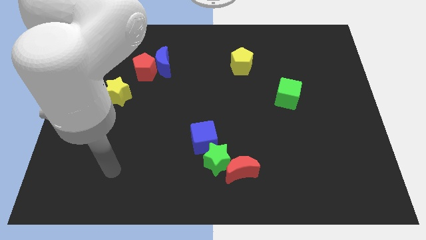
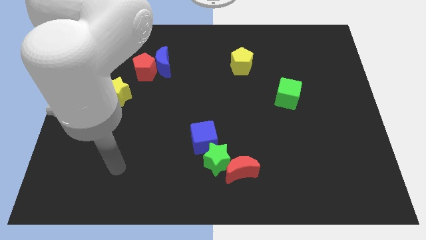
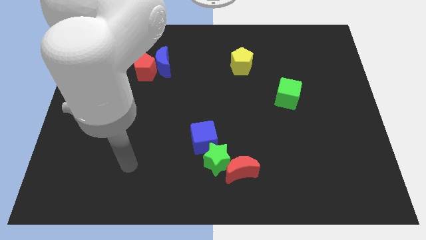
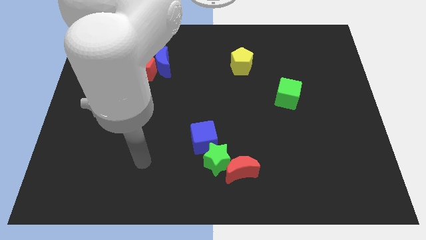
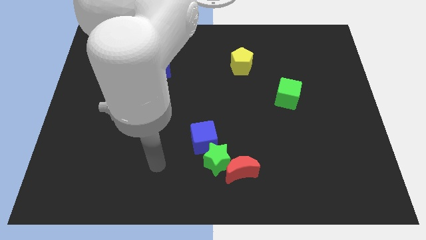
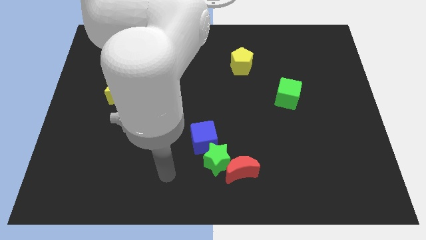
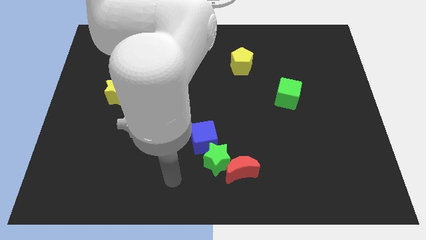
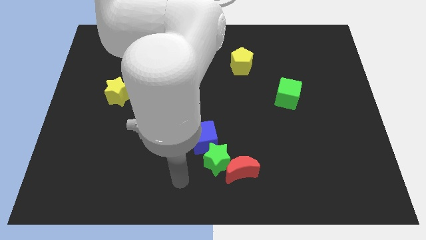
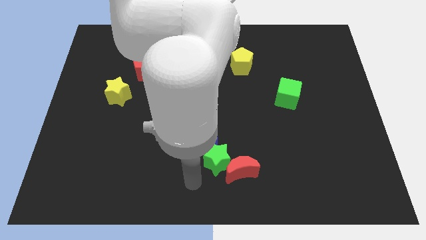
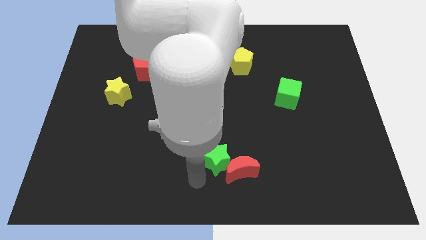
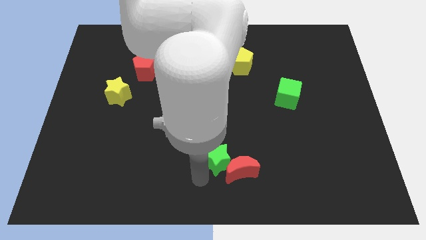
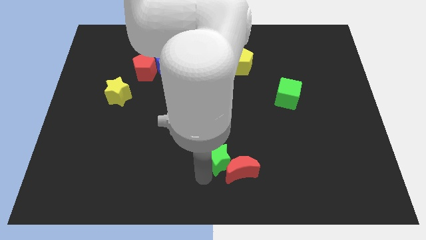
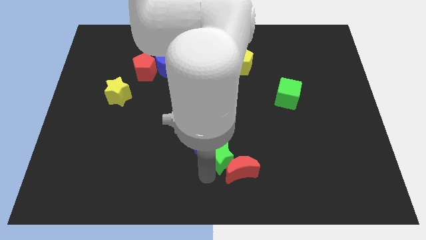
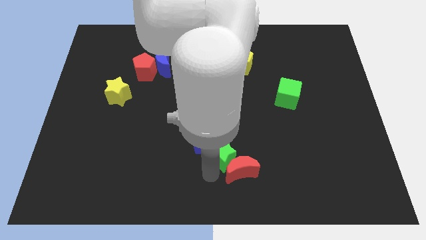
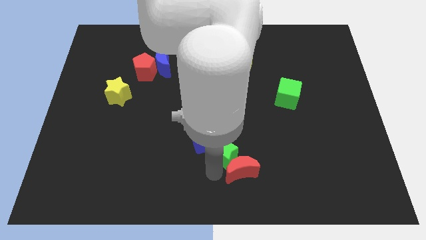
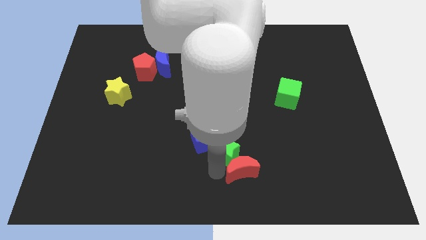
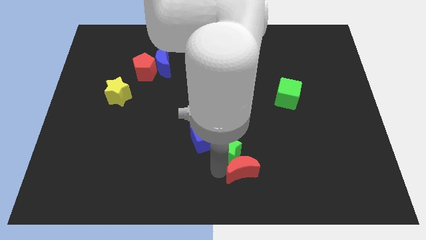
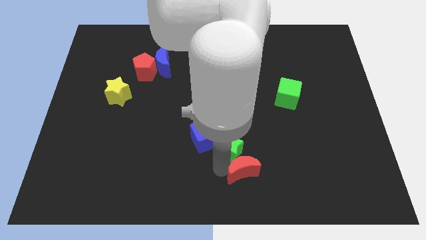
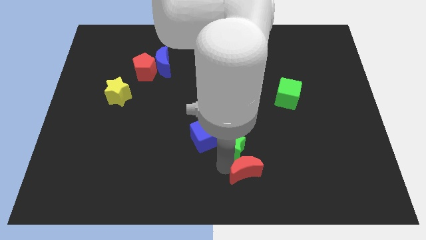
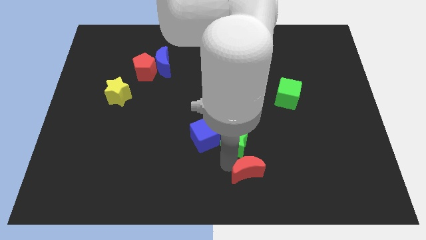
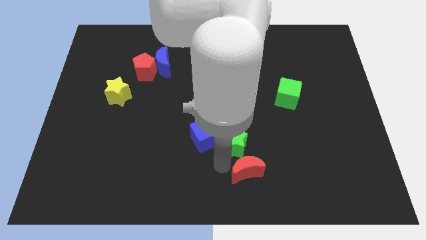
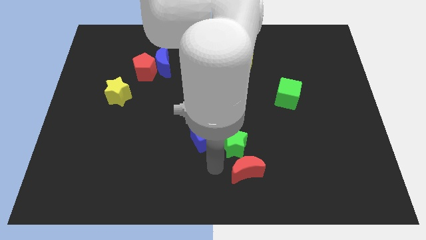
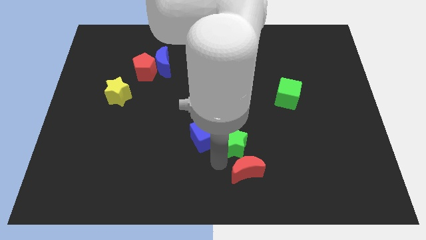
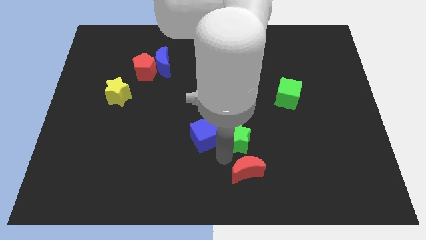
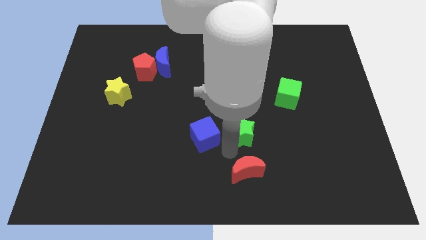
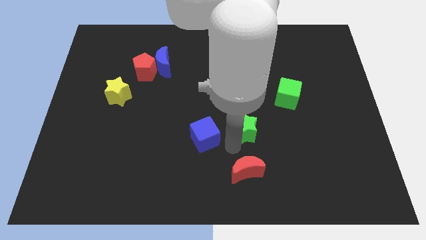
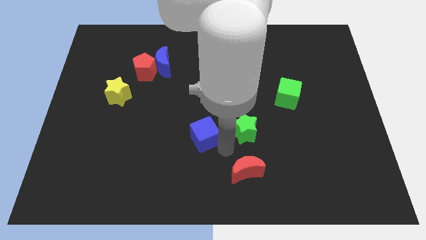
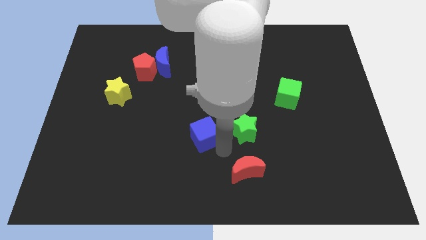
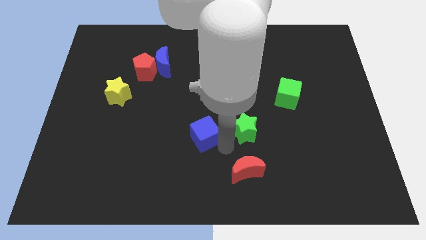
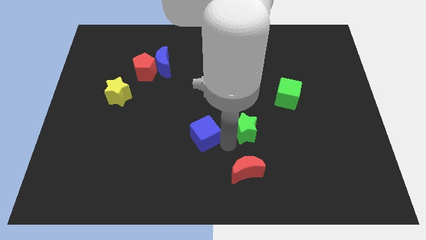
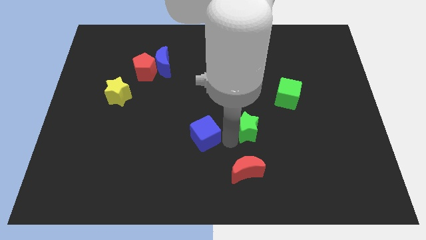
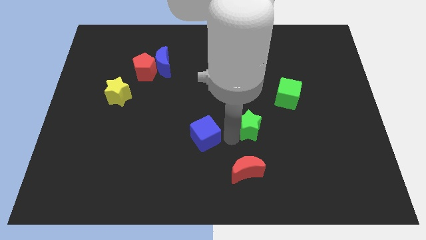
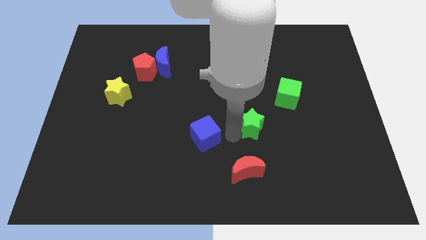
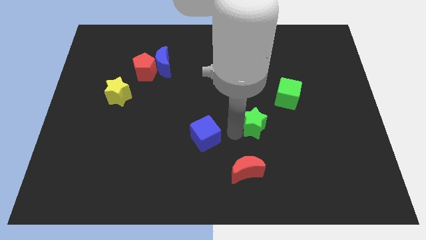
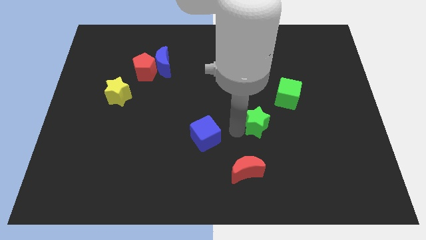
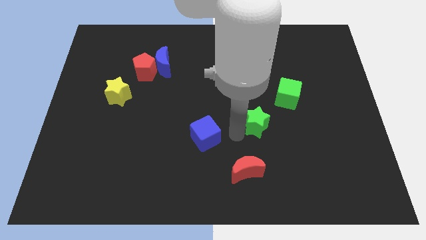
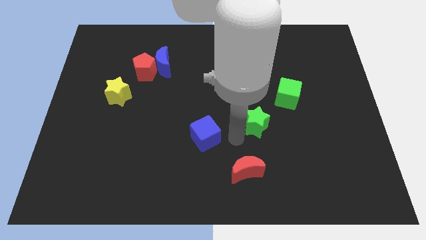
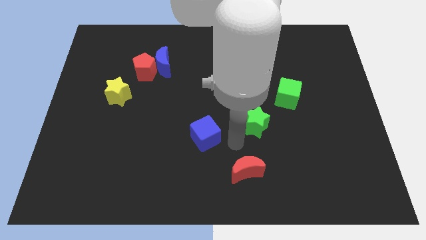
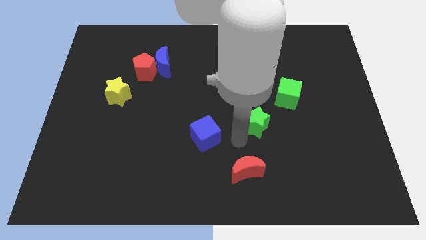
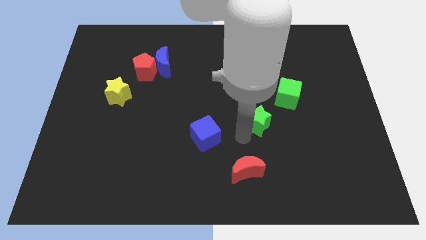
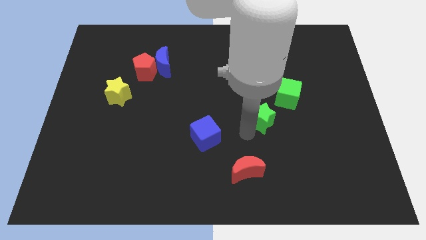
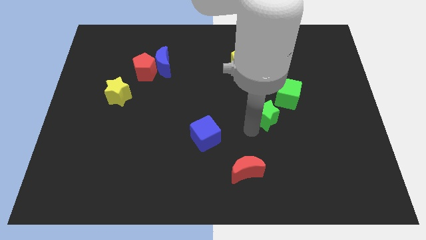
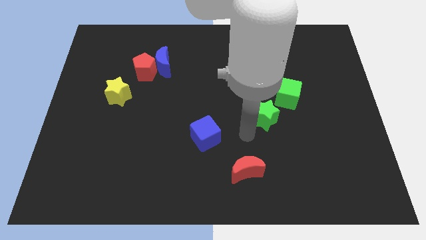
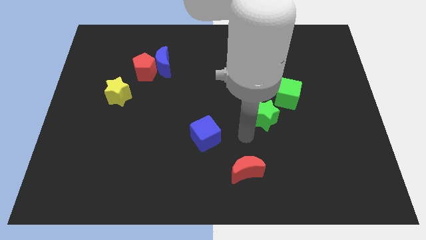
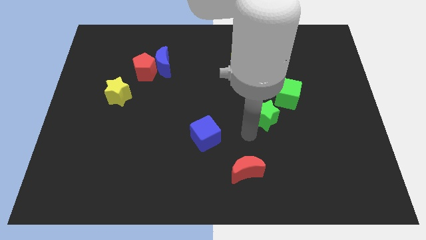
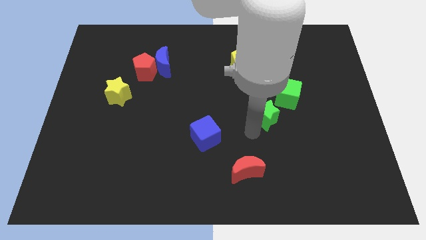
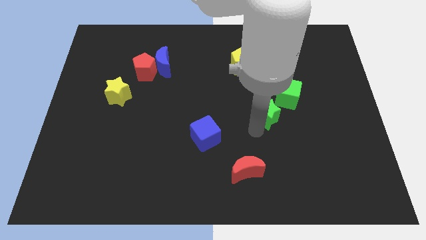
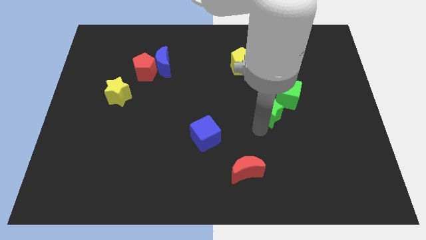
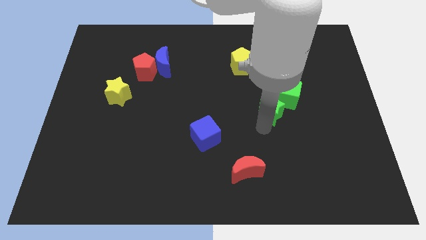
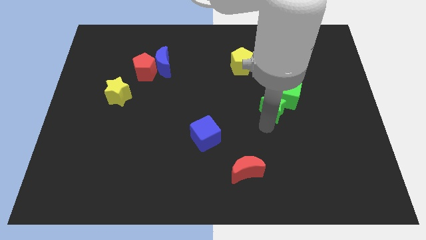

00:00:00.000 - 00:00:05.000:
put the green star close to the green cube

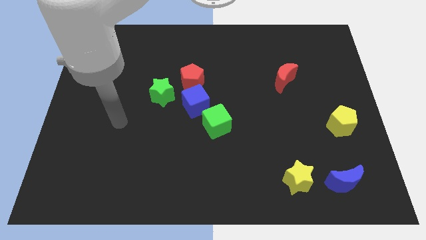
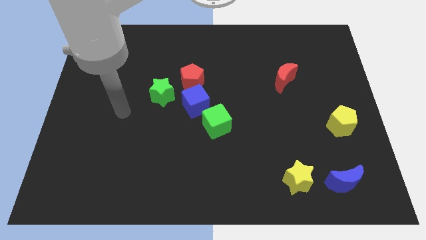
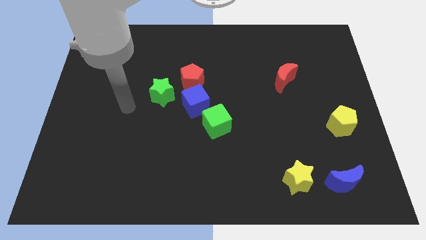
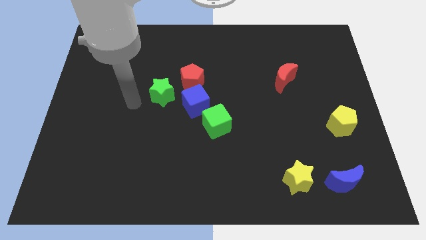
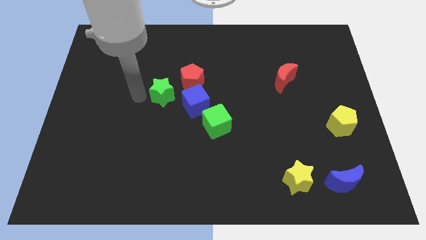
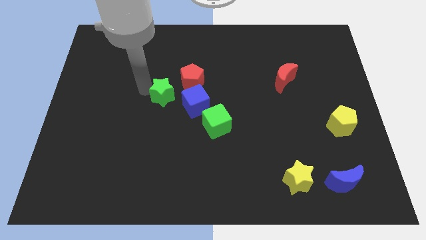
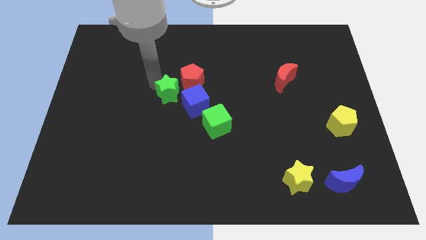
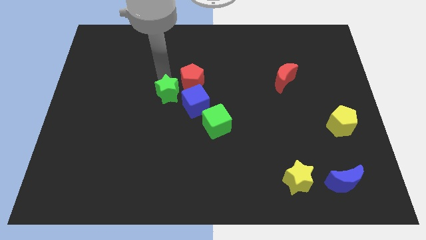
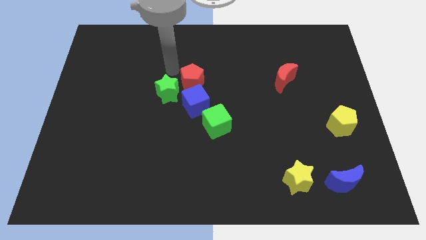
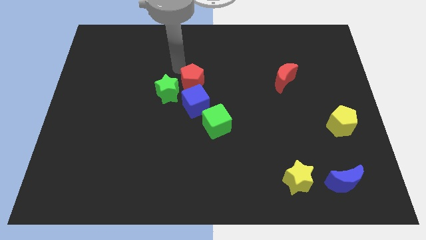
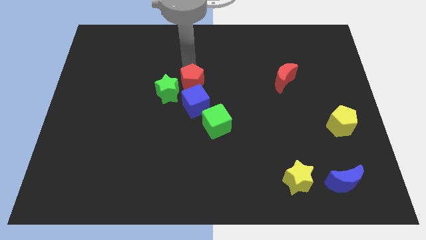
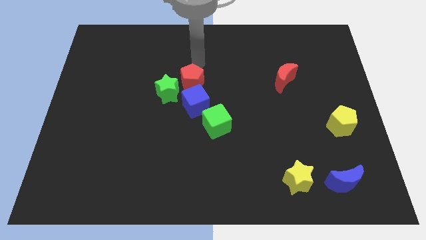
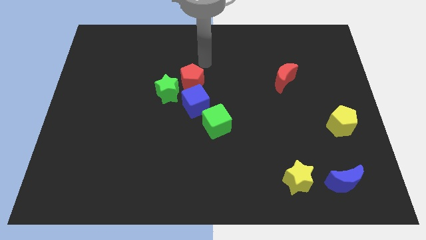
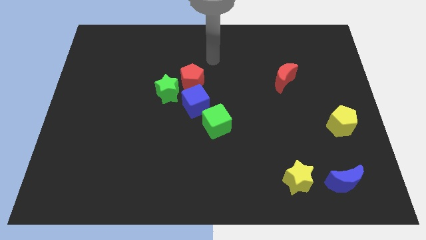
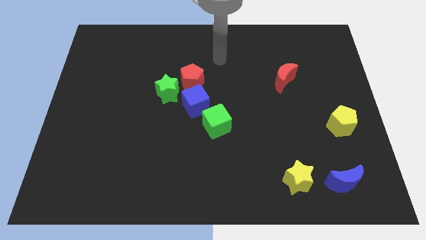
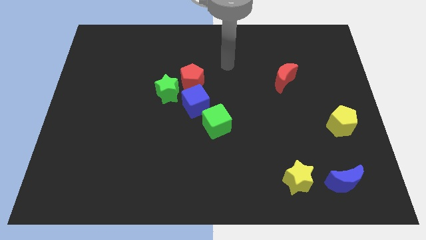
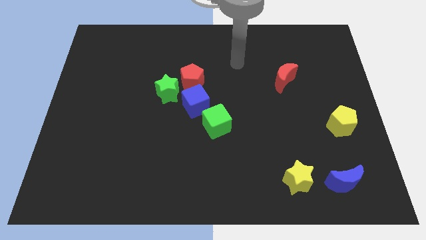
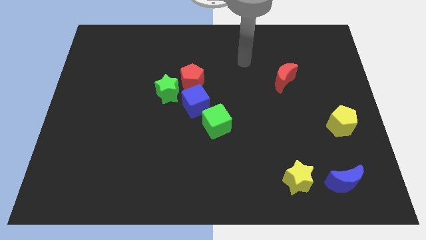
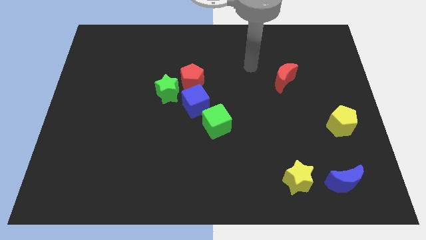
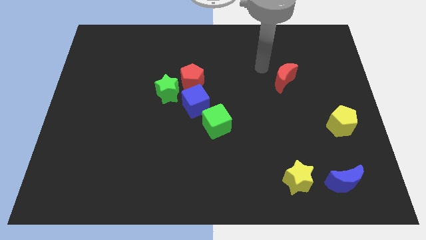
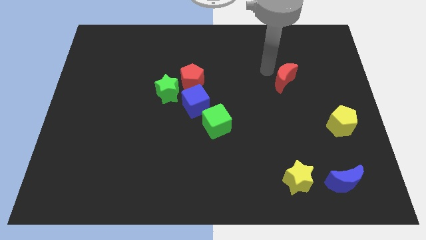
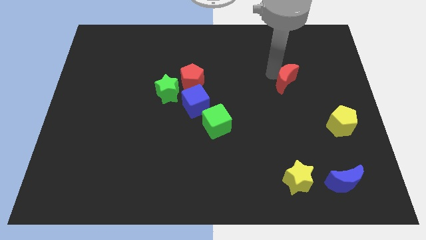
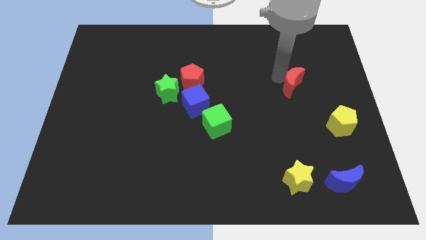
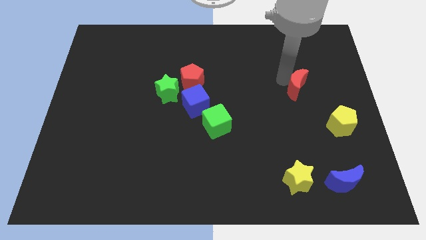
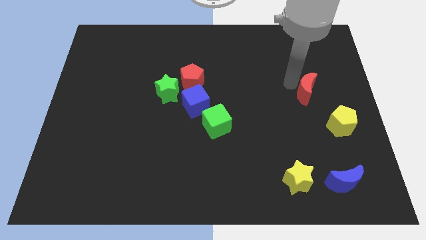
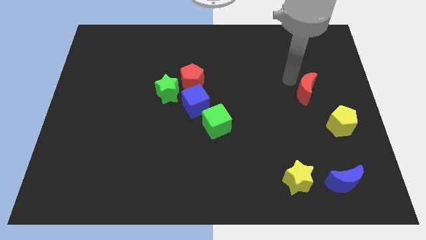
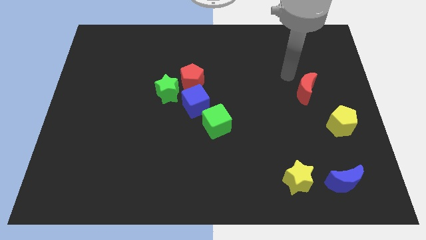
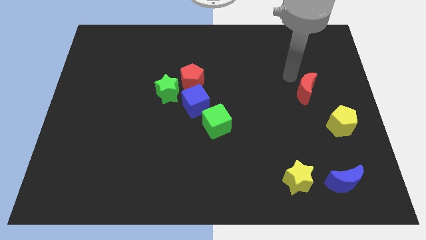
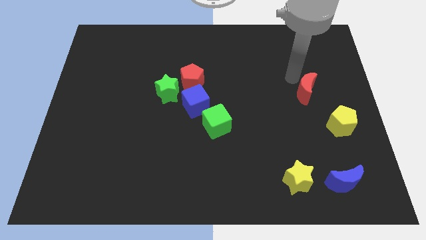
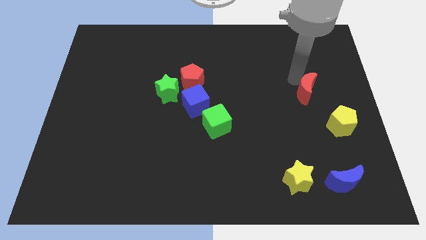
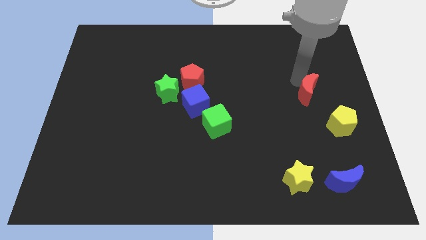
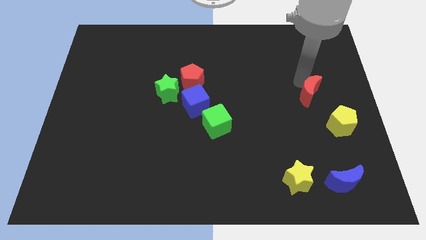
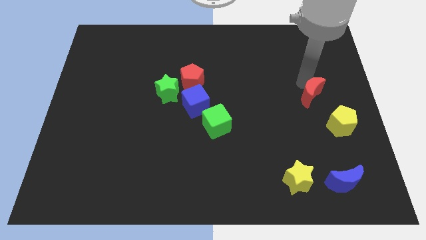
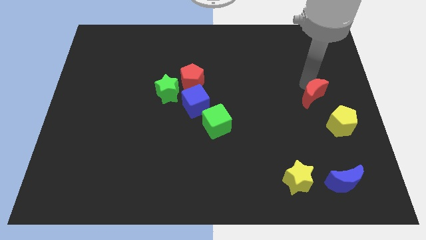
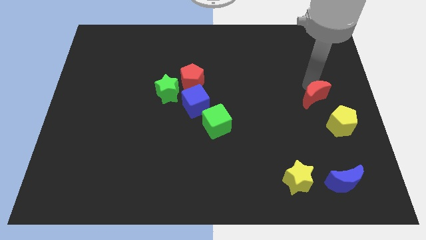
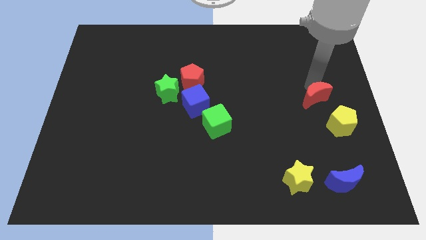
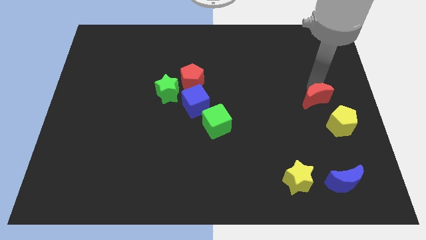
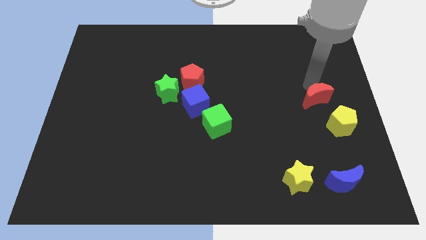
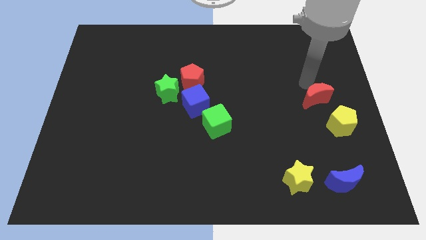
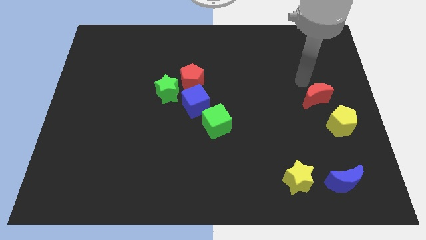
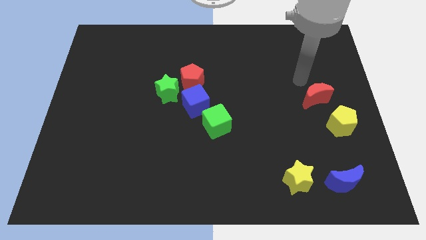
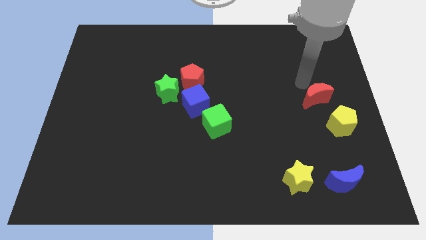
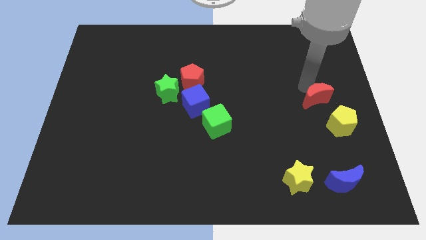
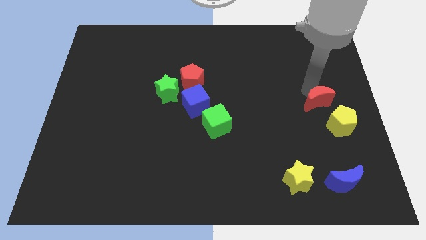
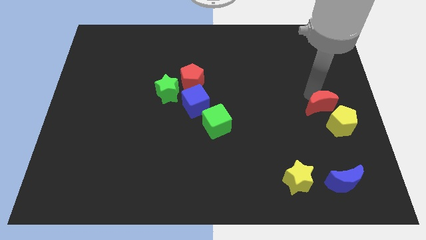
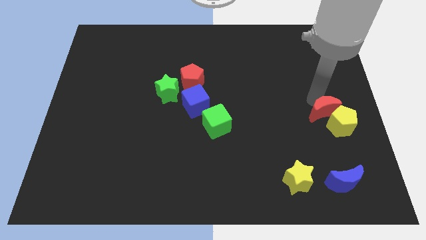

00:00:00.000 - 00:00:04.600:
push the red moon next to the yellow pentagon
